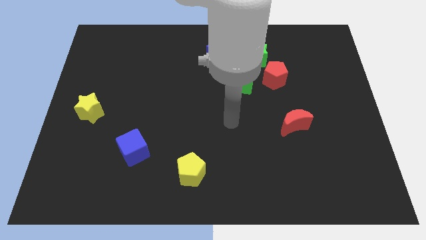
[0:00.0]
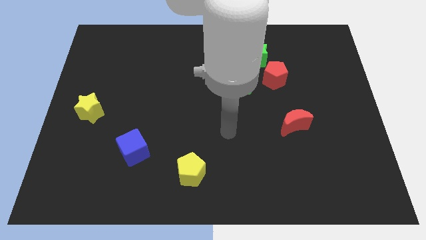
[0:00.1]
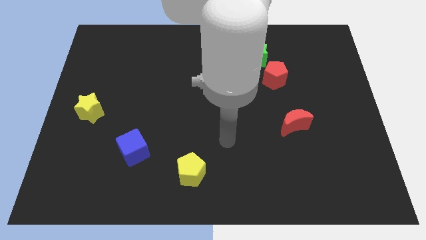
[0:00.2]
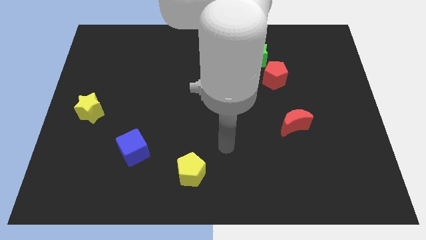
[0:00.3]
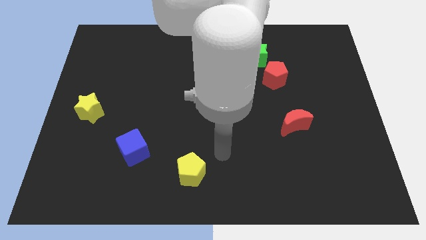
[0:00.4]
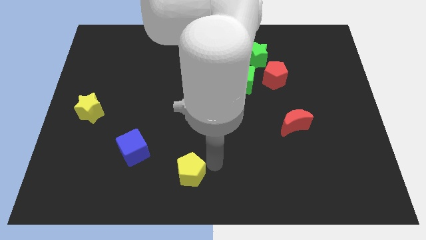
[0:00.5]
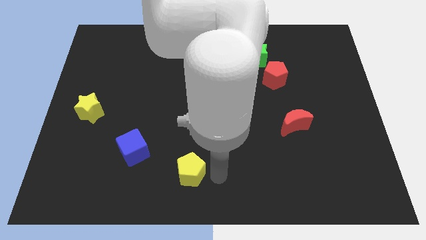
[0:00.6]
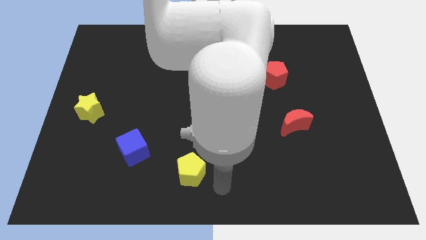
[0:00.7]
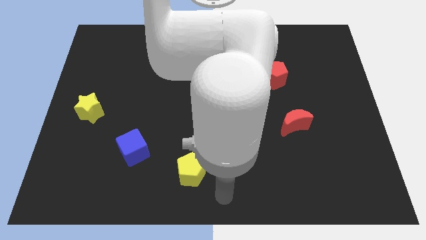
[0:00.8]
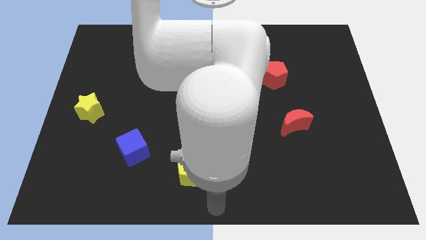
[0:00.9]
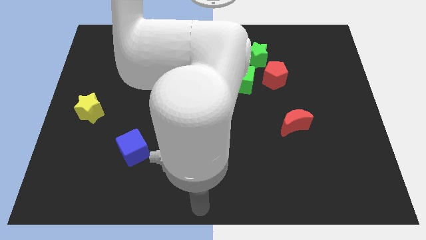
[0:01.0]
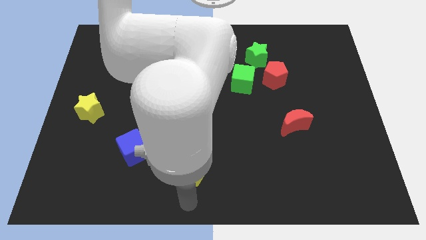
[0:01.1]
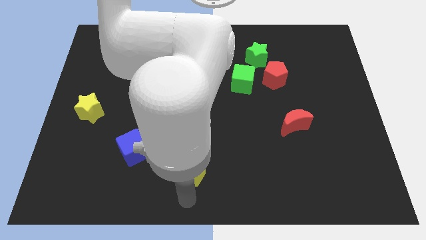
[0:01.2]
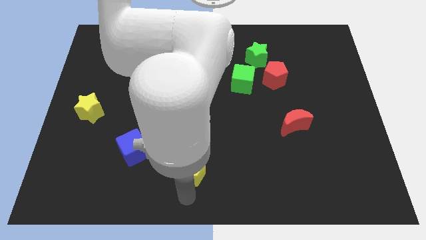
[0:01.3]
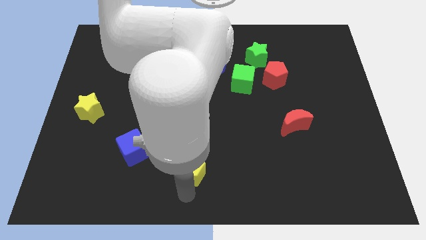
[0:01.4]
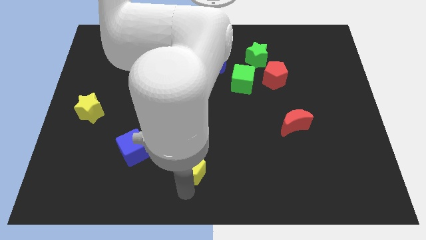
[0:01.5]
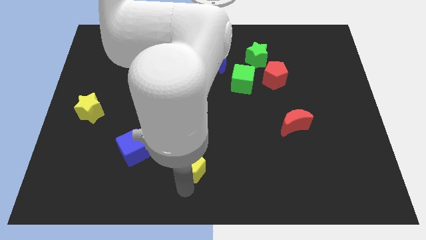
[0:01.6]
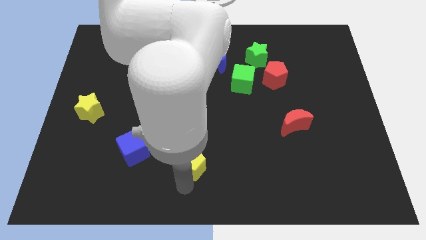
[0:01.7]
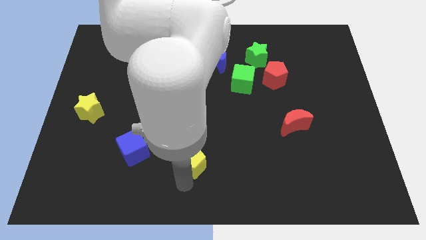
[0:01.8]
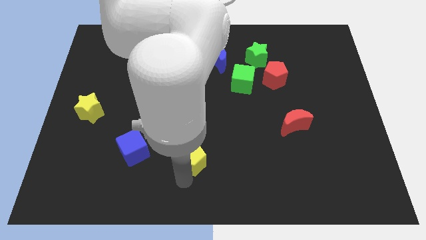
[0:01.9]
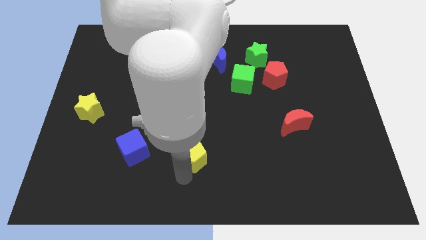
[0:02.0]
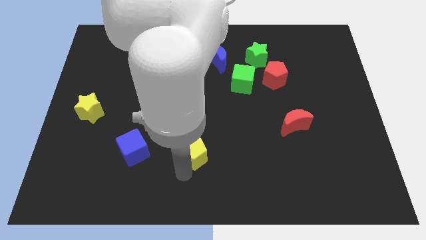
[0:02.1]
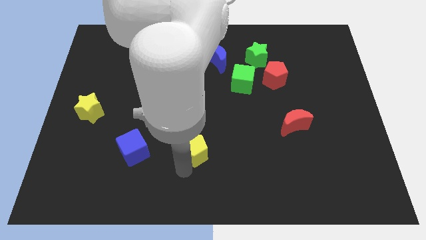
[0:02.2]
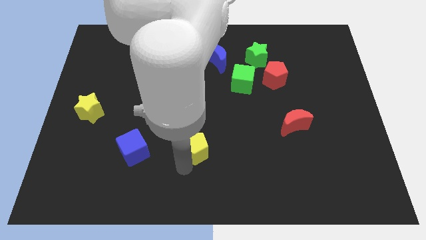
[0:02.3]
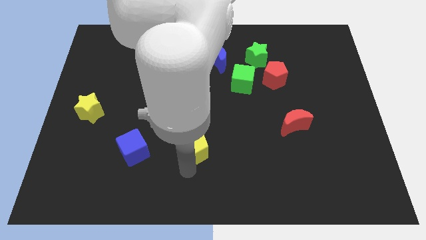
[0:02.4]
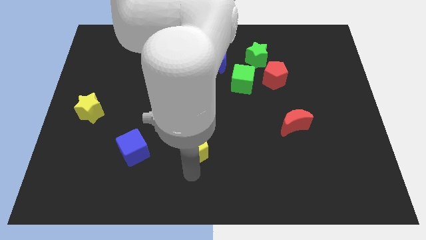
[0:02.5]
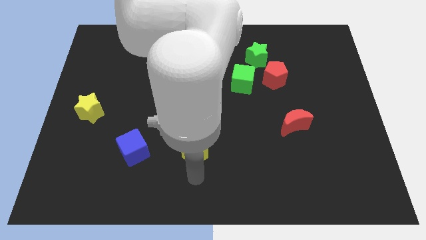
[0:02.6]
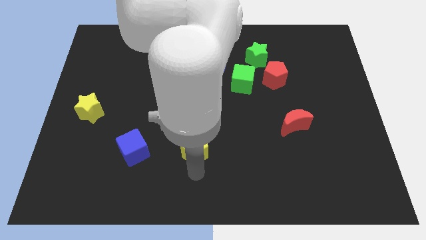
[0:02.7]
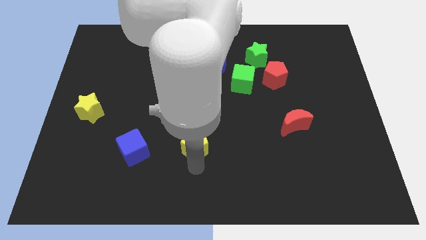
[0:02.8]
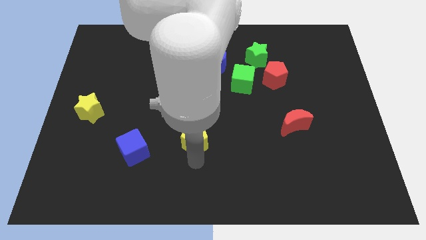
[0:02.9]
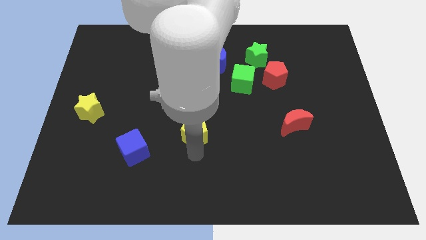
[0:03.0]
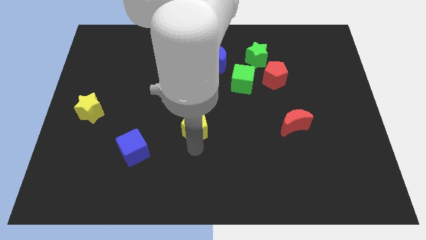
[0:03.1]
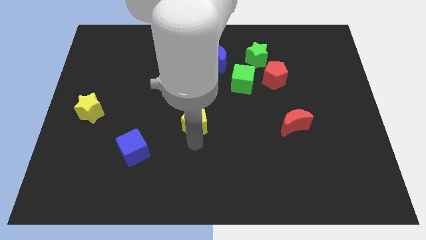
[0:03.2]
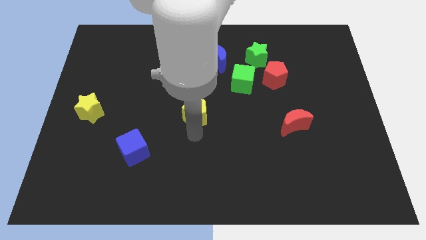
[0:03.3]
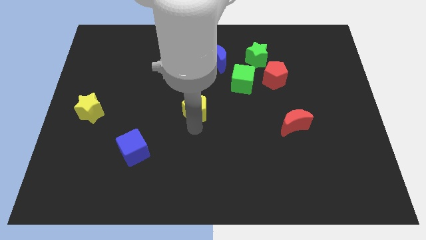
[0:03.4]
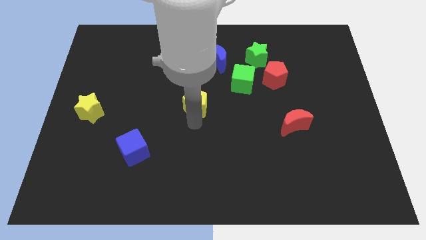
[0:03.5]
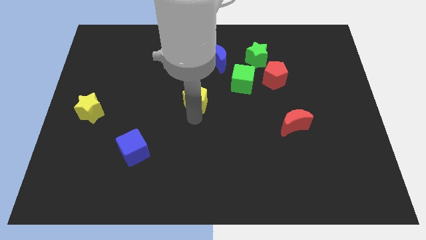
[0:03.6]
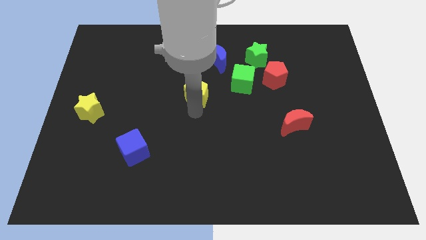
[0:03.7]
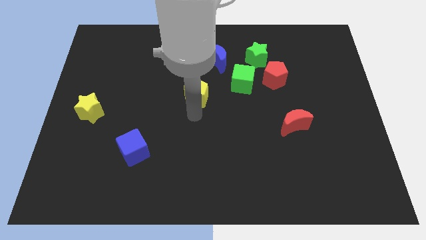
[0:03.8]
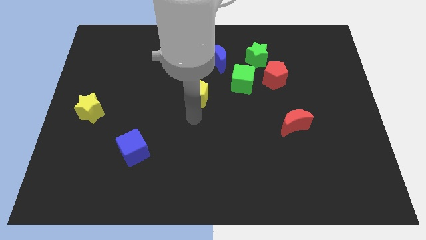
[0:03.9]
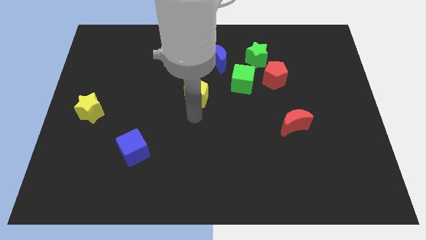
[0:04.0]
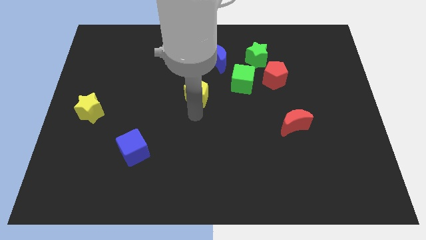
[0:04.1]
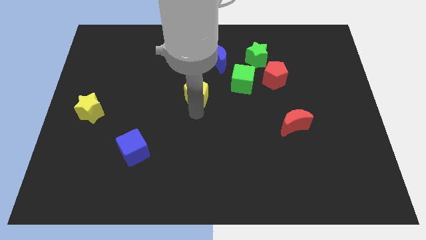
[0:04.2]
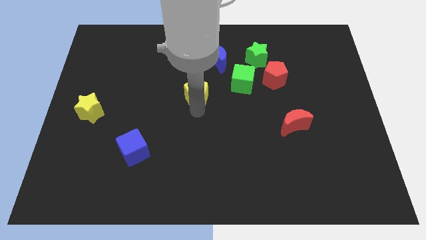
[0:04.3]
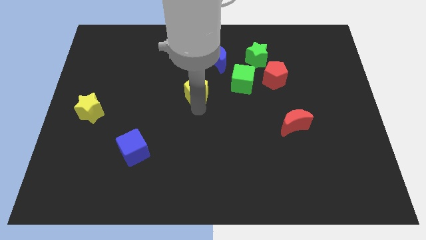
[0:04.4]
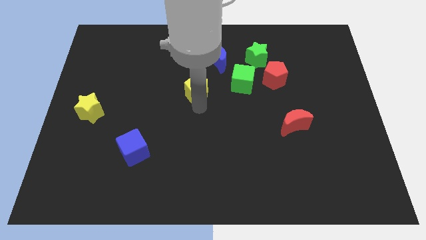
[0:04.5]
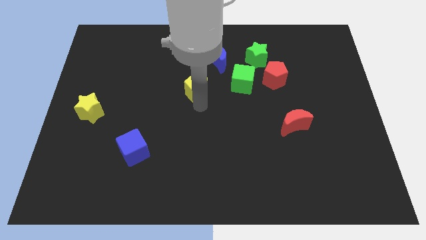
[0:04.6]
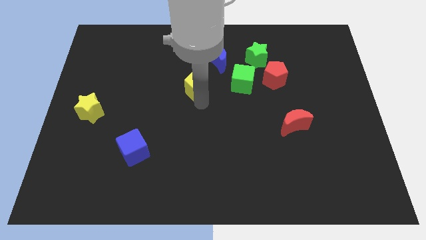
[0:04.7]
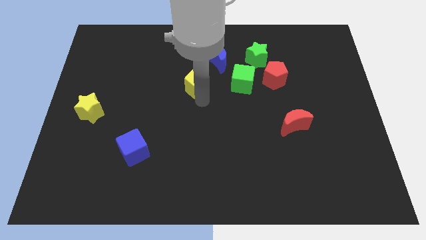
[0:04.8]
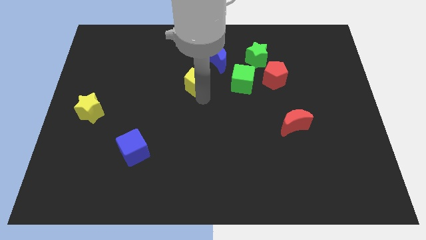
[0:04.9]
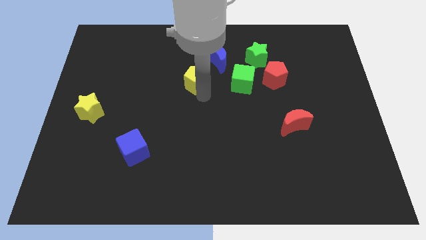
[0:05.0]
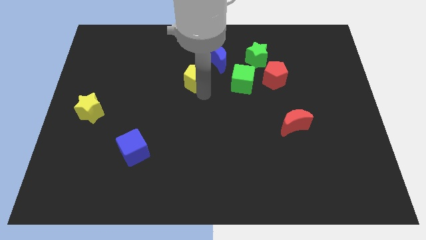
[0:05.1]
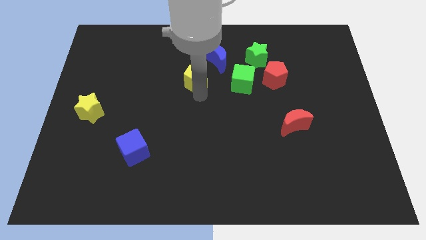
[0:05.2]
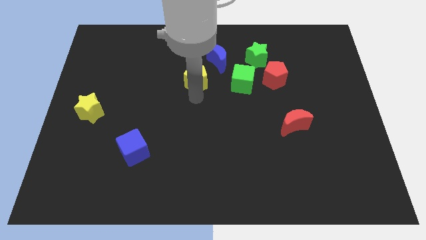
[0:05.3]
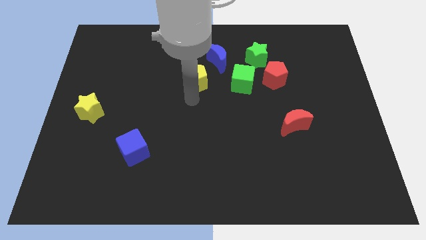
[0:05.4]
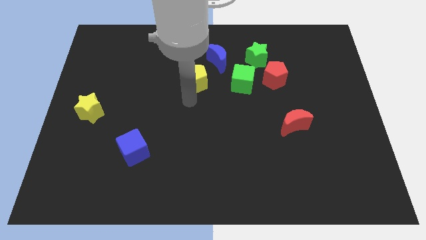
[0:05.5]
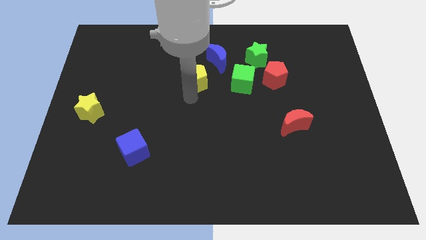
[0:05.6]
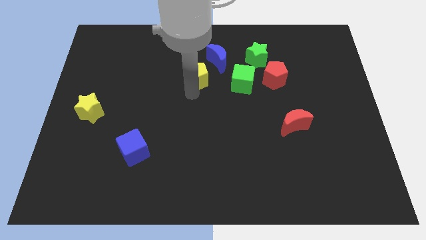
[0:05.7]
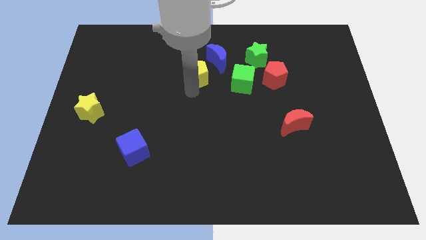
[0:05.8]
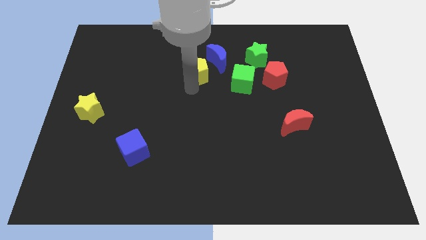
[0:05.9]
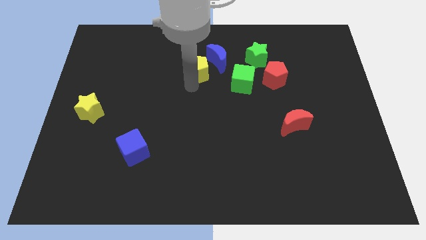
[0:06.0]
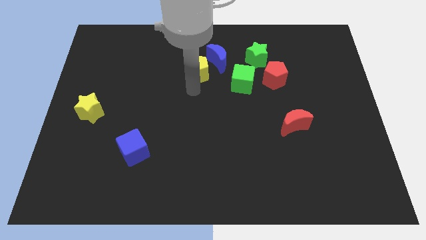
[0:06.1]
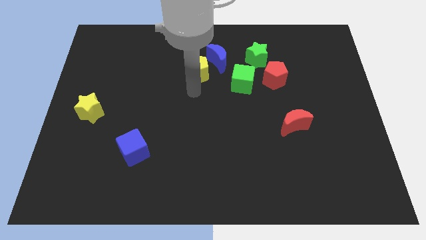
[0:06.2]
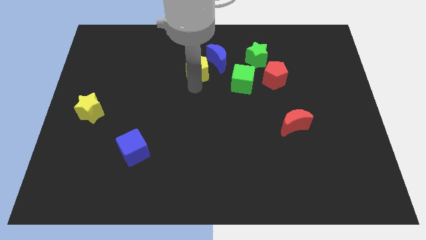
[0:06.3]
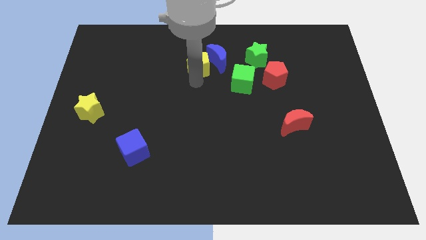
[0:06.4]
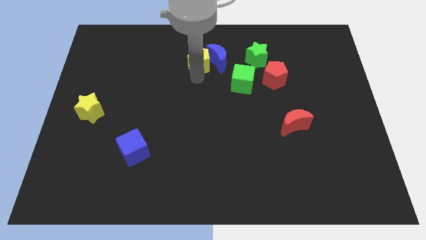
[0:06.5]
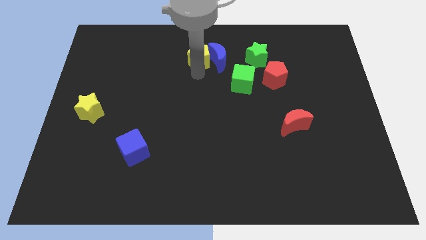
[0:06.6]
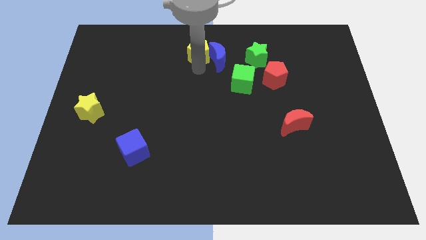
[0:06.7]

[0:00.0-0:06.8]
move the yellow pentagon to the top
